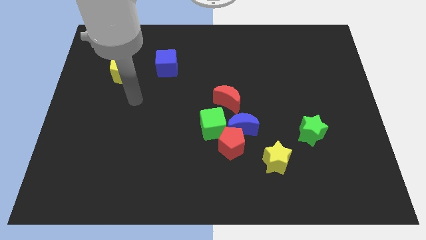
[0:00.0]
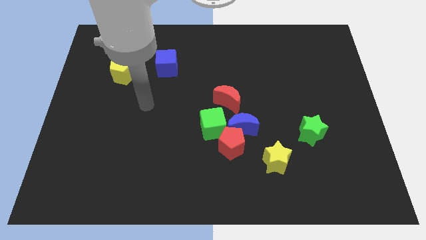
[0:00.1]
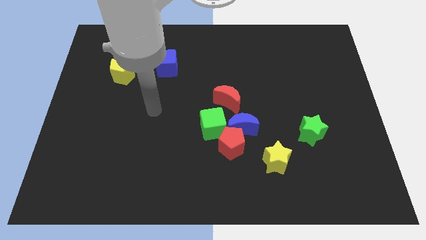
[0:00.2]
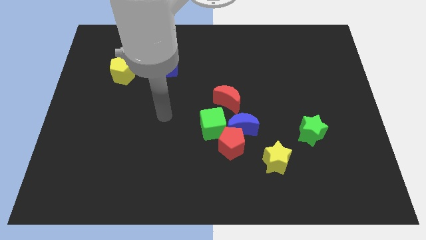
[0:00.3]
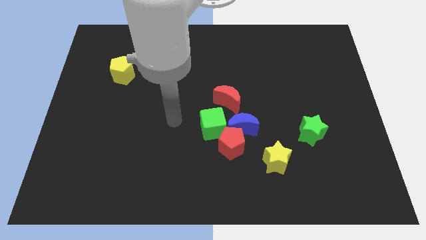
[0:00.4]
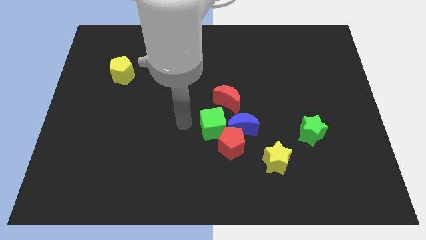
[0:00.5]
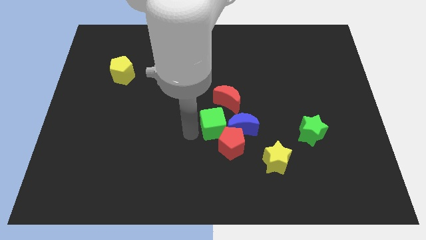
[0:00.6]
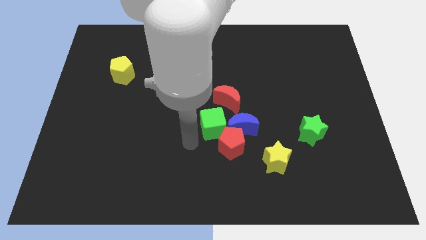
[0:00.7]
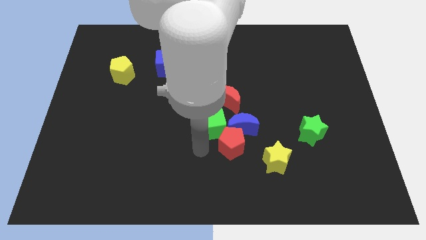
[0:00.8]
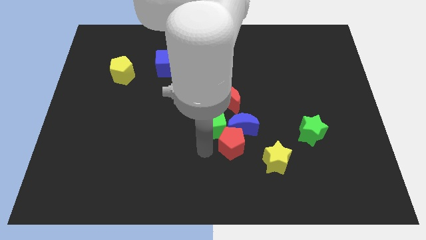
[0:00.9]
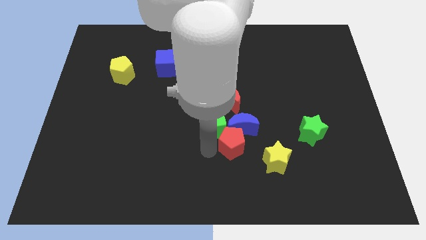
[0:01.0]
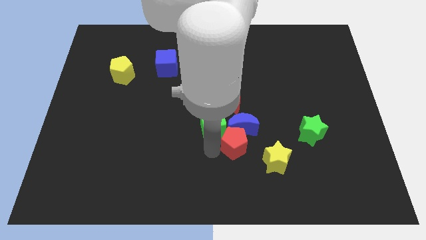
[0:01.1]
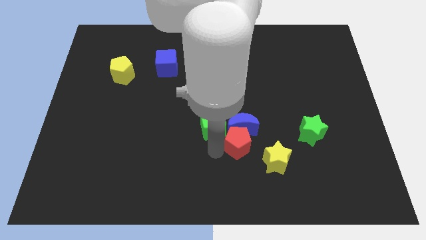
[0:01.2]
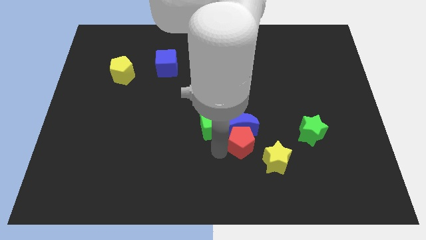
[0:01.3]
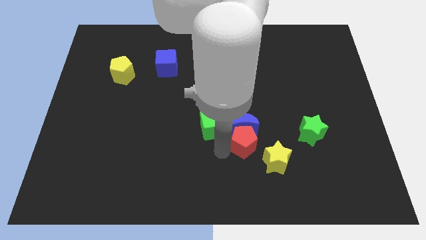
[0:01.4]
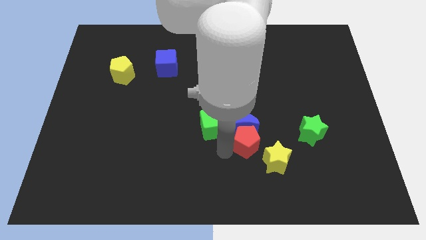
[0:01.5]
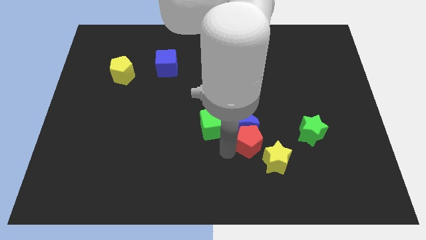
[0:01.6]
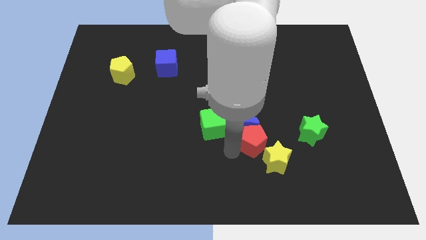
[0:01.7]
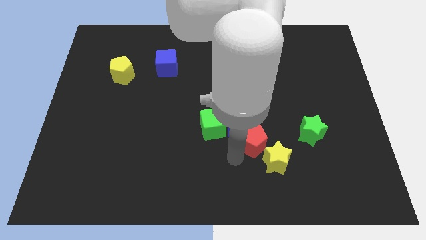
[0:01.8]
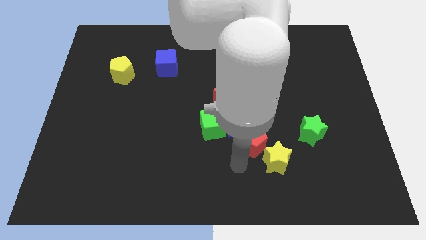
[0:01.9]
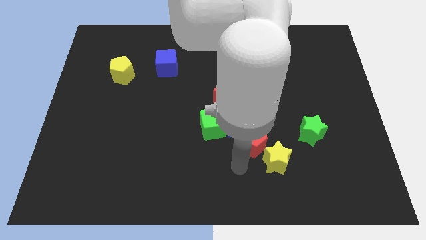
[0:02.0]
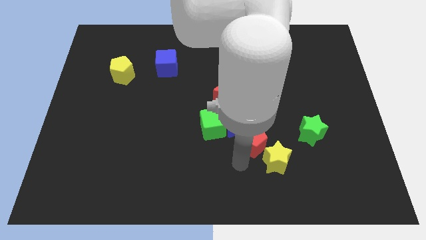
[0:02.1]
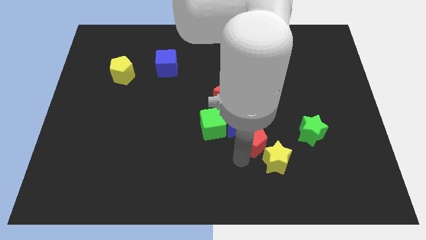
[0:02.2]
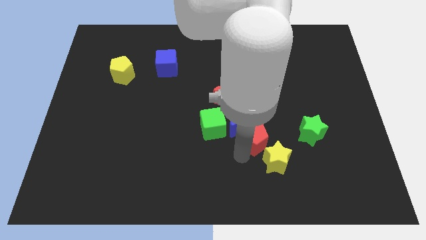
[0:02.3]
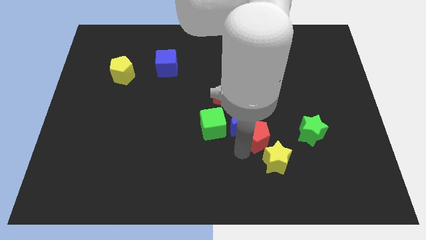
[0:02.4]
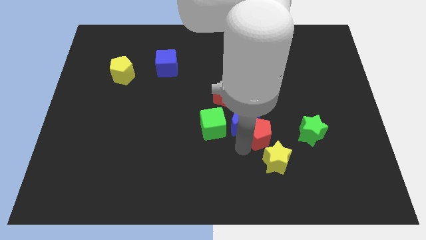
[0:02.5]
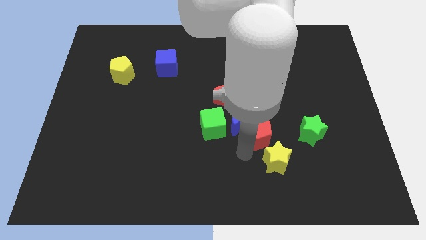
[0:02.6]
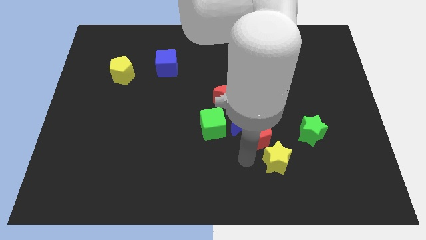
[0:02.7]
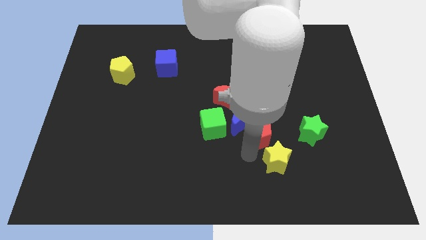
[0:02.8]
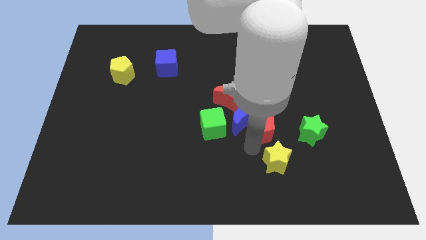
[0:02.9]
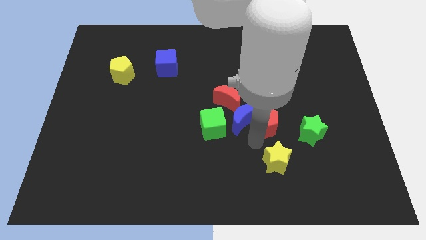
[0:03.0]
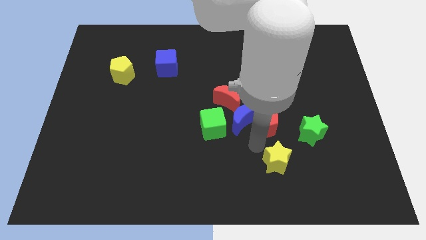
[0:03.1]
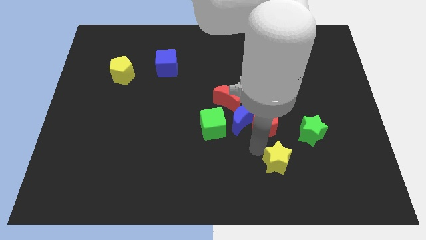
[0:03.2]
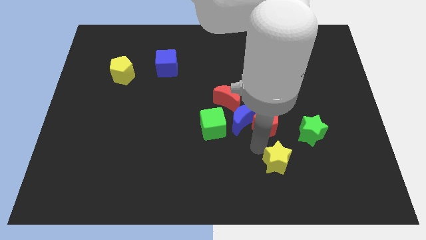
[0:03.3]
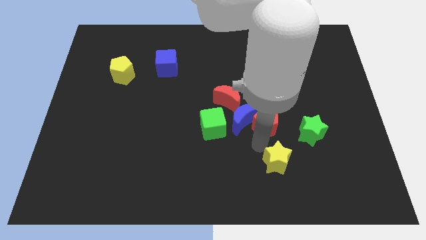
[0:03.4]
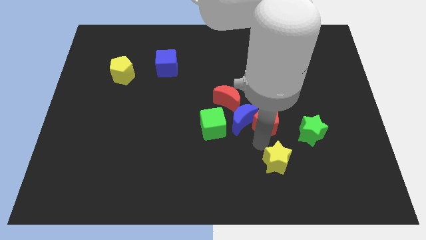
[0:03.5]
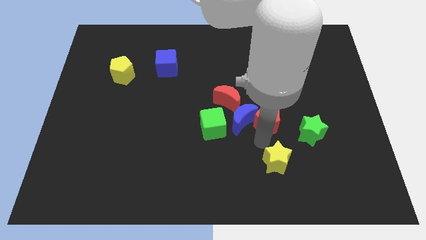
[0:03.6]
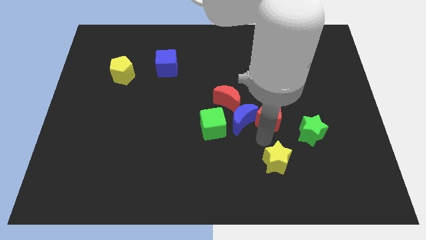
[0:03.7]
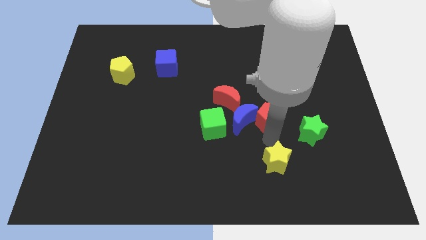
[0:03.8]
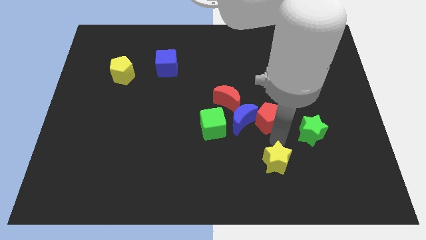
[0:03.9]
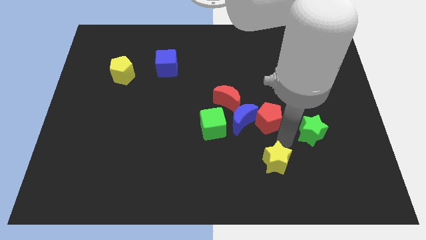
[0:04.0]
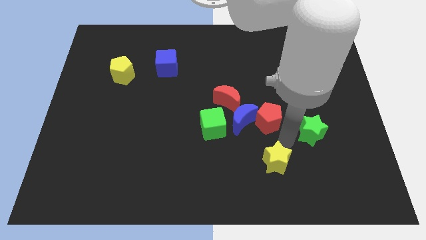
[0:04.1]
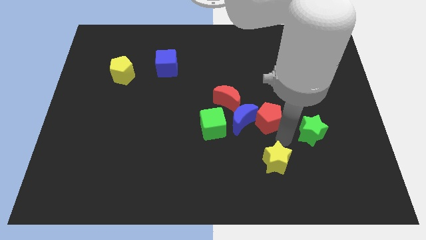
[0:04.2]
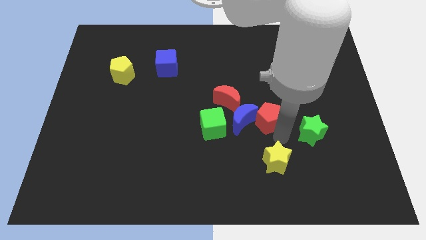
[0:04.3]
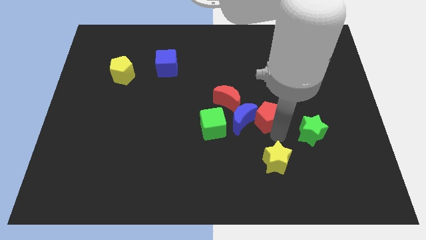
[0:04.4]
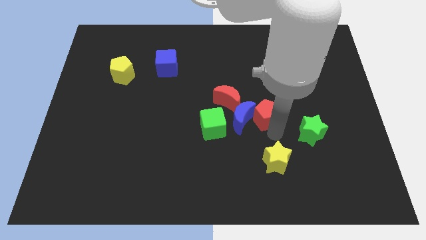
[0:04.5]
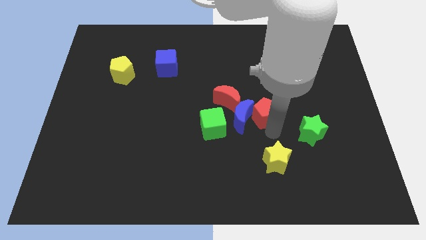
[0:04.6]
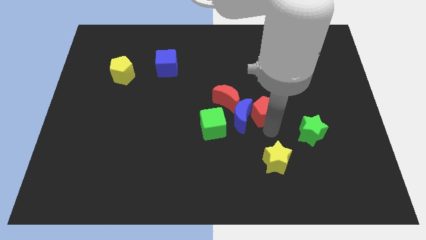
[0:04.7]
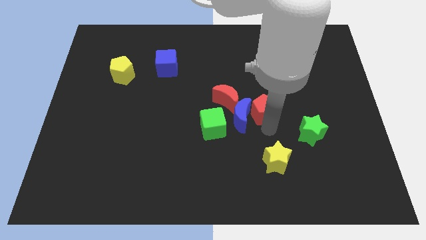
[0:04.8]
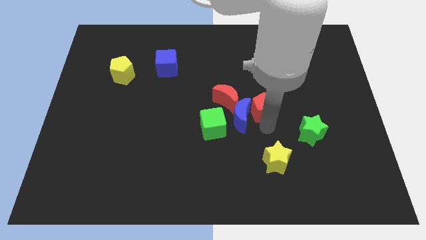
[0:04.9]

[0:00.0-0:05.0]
slightly slide the red pentagon upwards

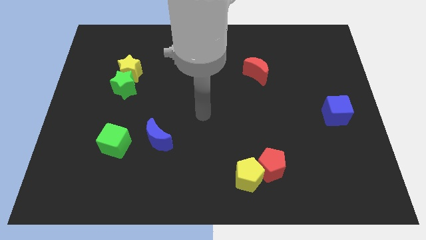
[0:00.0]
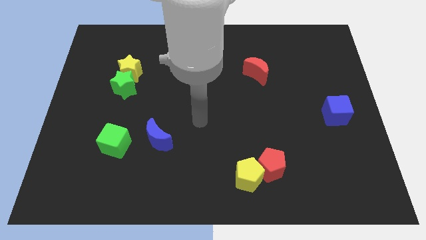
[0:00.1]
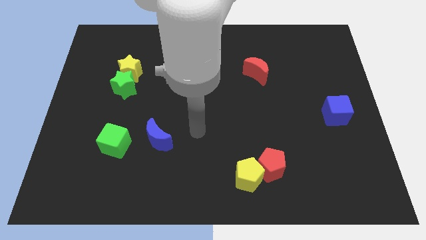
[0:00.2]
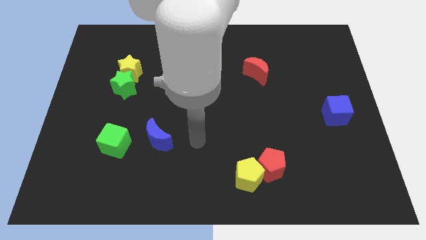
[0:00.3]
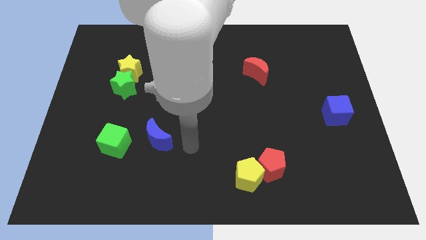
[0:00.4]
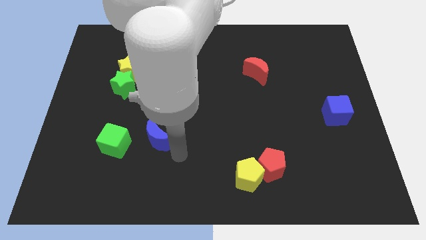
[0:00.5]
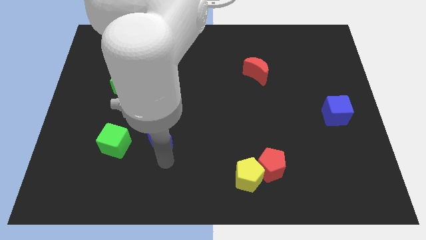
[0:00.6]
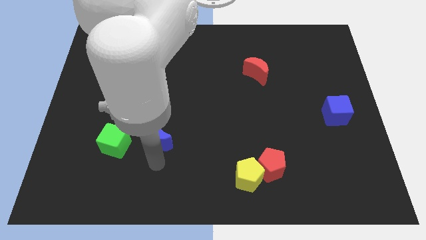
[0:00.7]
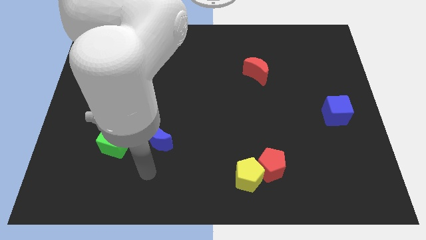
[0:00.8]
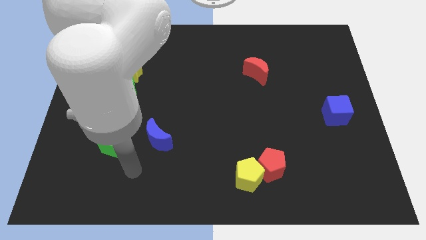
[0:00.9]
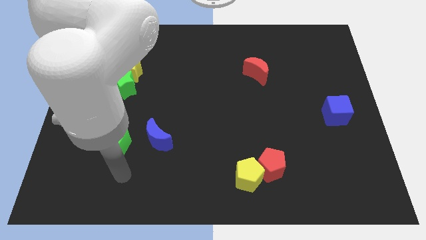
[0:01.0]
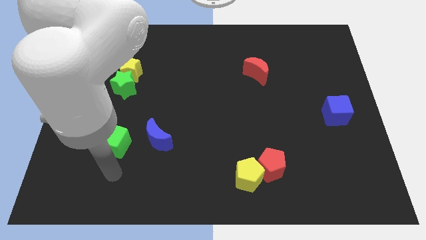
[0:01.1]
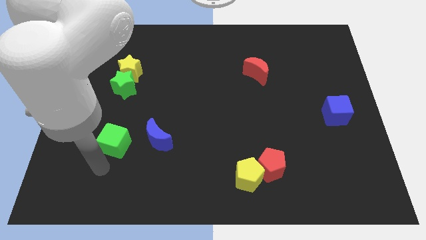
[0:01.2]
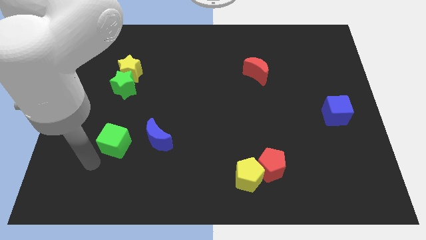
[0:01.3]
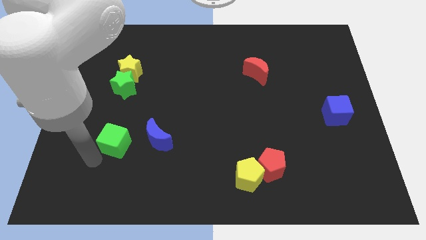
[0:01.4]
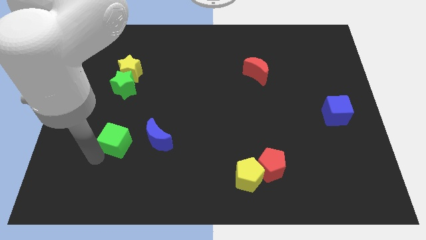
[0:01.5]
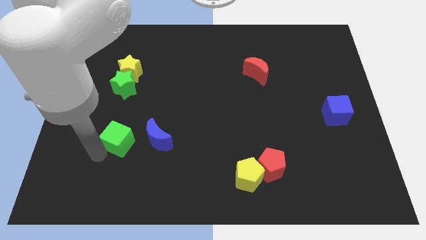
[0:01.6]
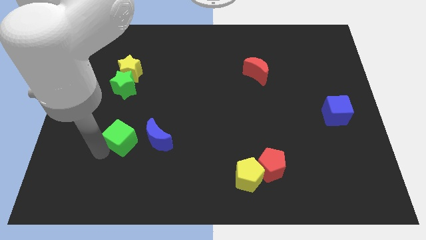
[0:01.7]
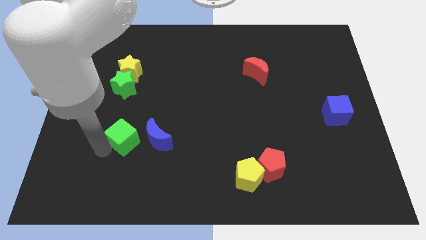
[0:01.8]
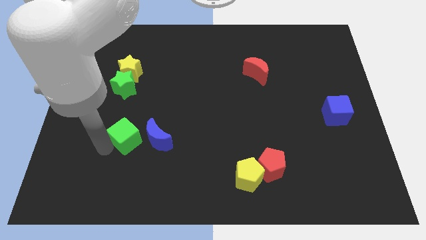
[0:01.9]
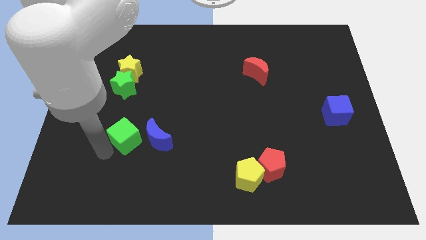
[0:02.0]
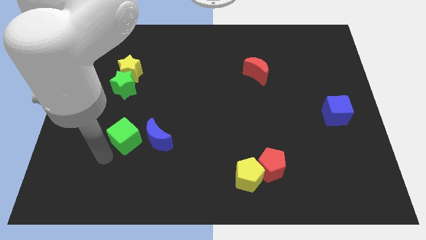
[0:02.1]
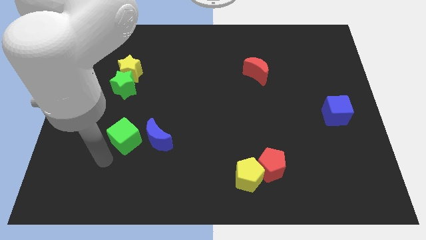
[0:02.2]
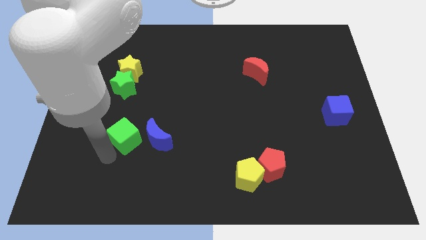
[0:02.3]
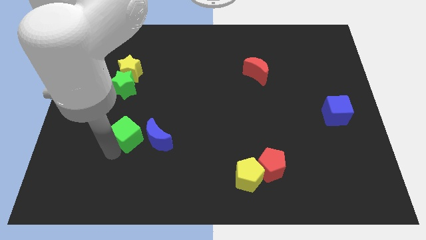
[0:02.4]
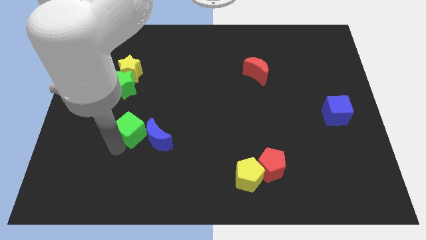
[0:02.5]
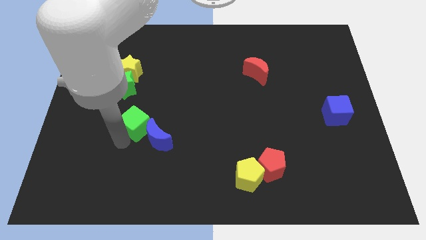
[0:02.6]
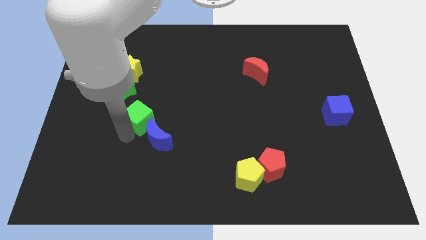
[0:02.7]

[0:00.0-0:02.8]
push the green cube a little bit diagonally upwards and to the right

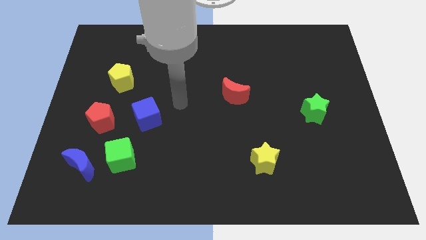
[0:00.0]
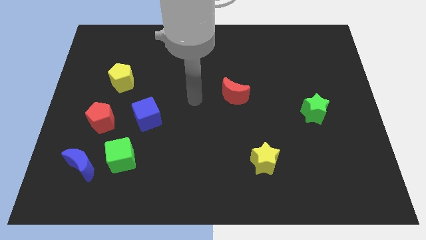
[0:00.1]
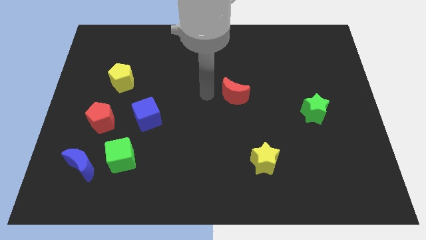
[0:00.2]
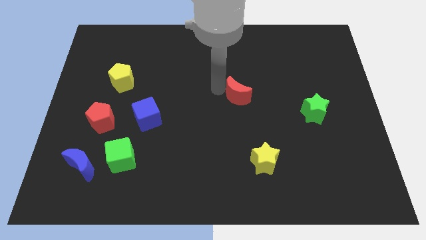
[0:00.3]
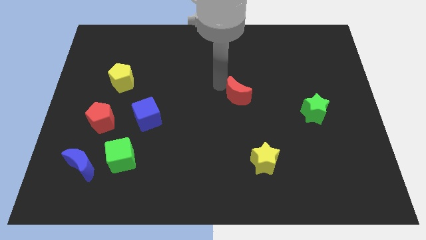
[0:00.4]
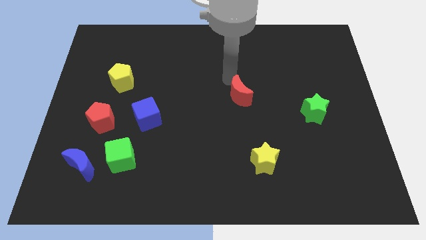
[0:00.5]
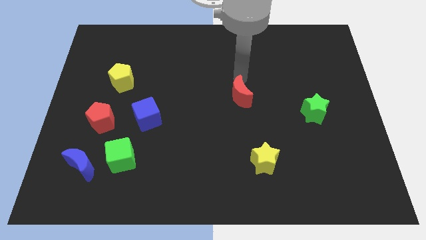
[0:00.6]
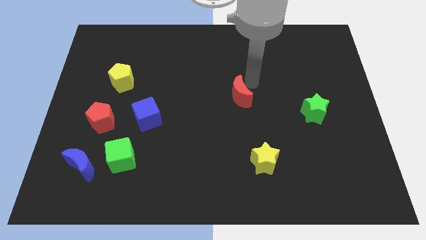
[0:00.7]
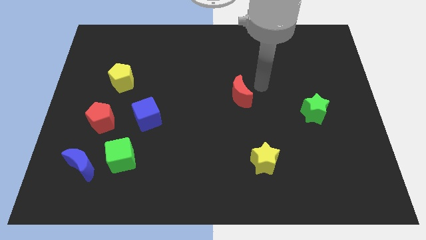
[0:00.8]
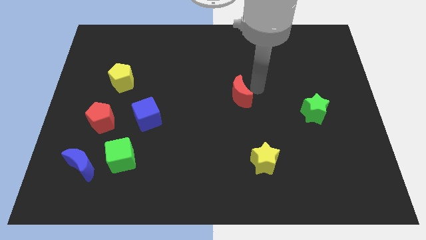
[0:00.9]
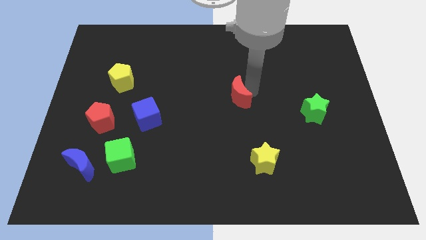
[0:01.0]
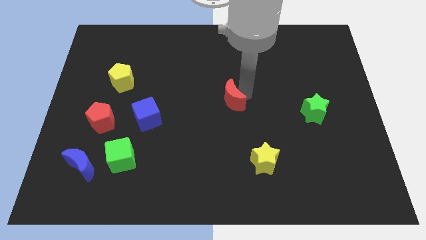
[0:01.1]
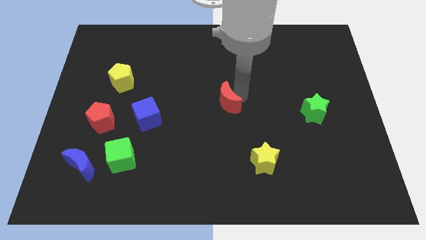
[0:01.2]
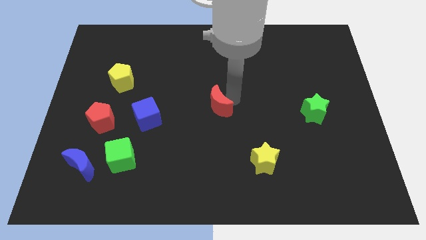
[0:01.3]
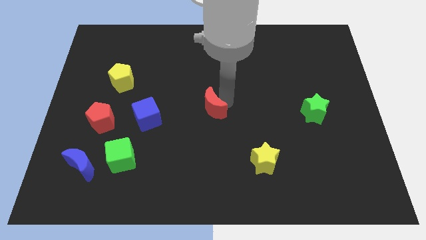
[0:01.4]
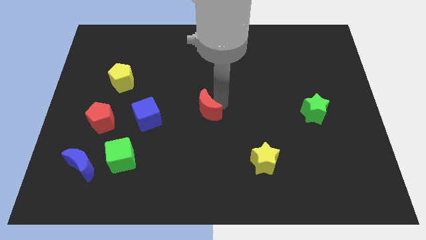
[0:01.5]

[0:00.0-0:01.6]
push the red moon a bit downwards and then left
